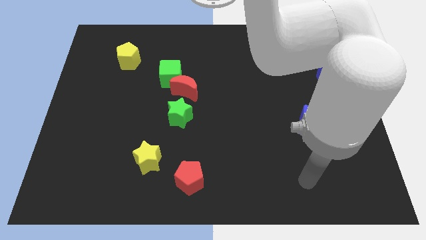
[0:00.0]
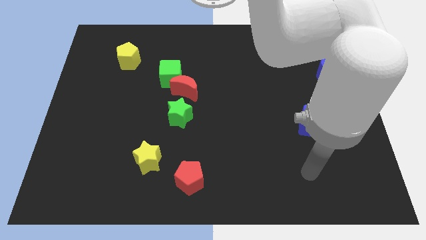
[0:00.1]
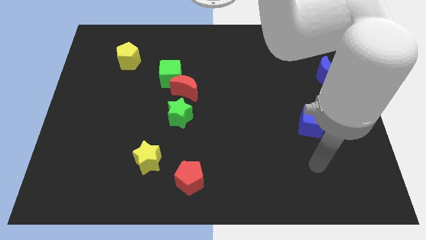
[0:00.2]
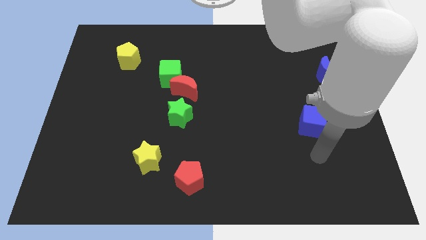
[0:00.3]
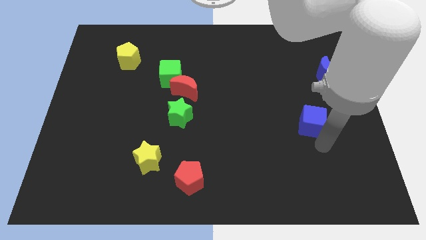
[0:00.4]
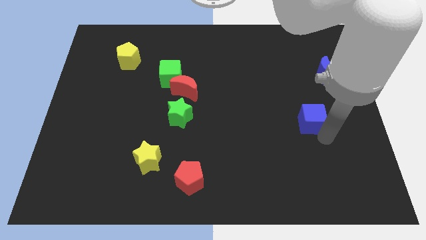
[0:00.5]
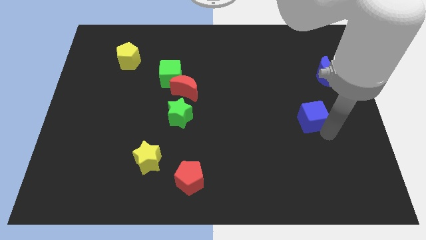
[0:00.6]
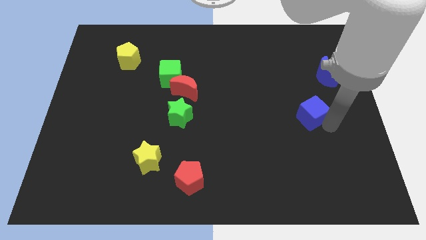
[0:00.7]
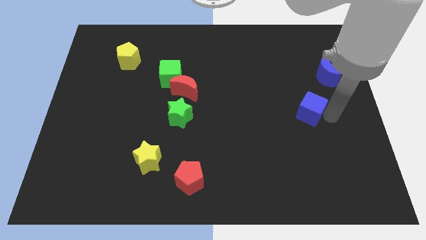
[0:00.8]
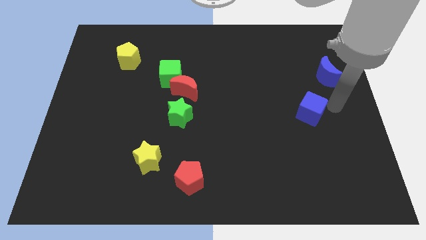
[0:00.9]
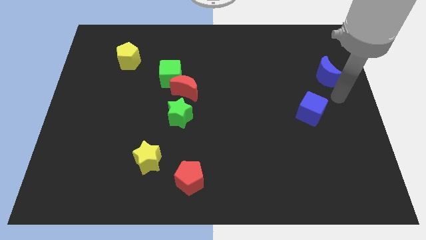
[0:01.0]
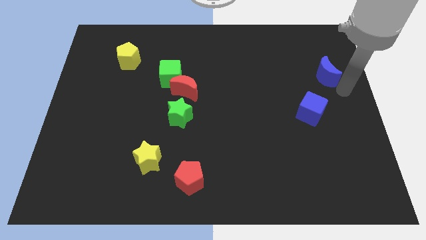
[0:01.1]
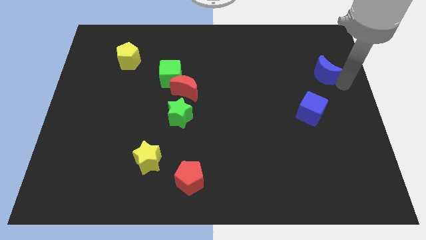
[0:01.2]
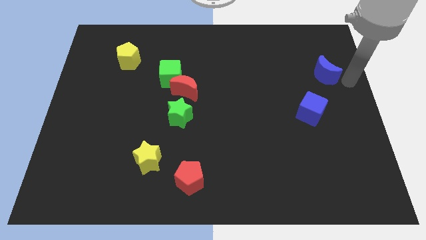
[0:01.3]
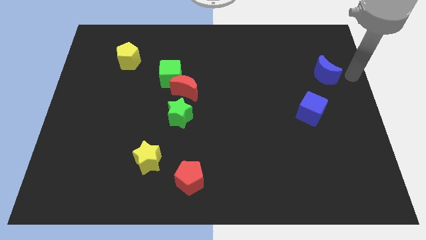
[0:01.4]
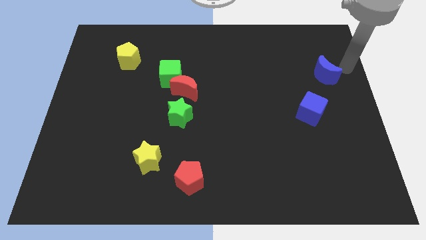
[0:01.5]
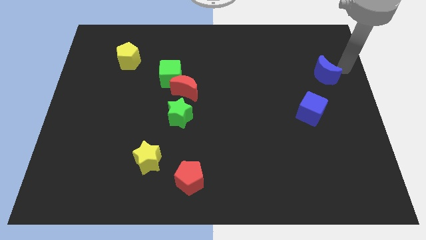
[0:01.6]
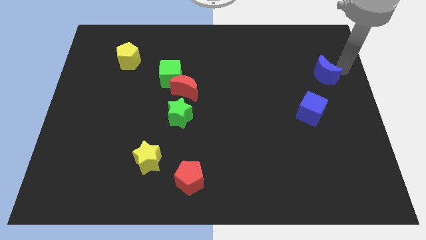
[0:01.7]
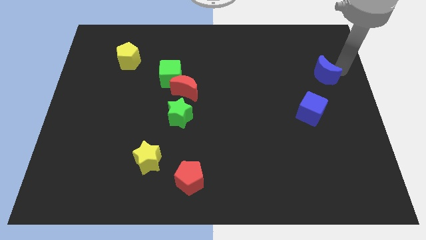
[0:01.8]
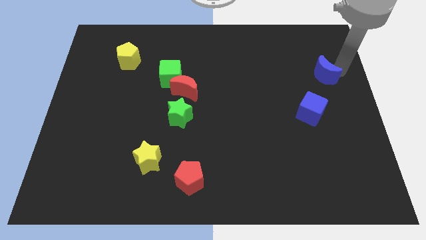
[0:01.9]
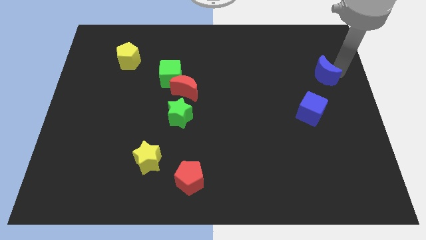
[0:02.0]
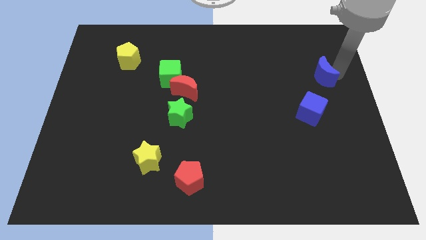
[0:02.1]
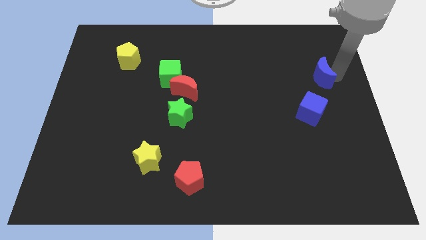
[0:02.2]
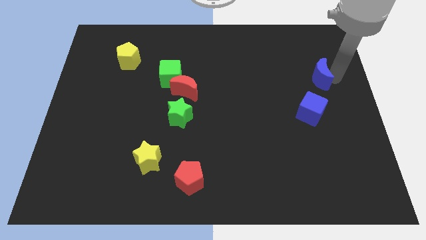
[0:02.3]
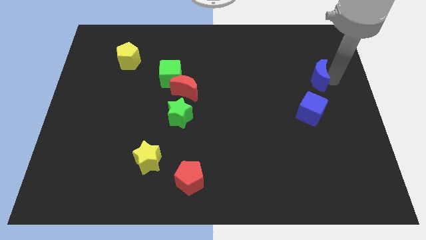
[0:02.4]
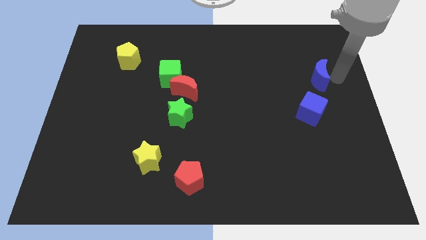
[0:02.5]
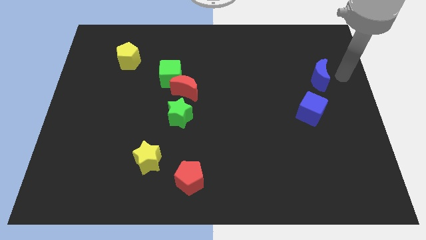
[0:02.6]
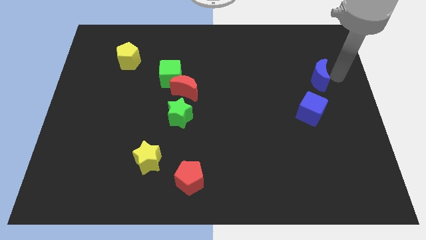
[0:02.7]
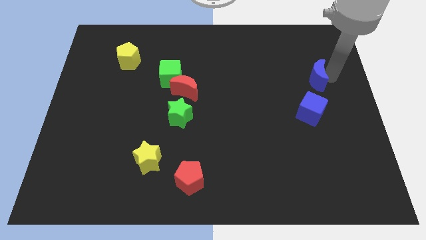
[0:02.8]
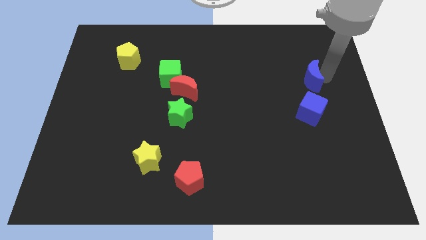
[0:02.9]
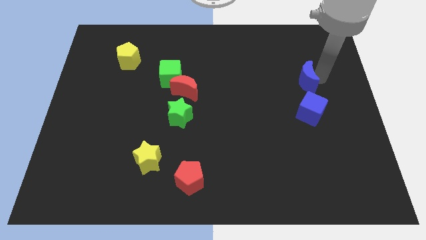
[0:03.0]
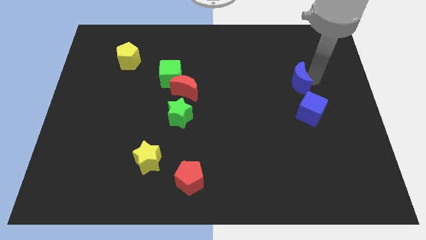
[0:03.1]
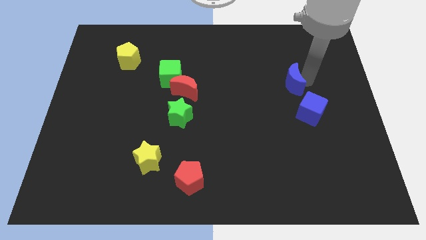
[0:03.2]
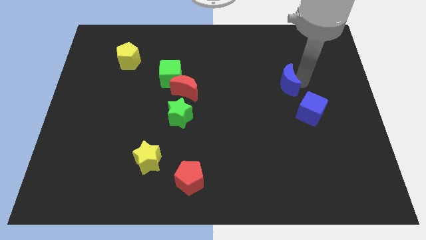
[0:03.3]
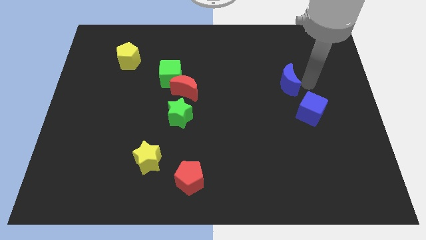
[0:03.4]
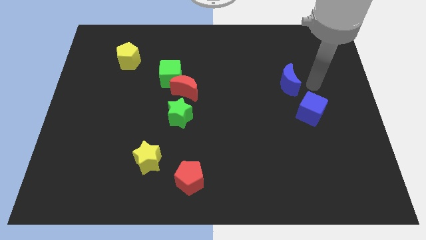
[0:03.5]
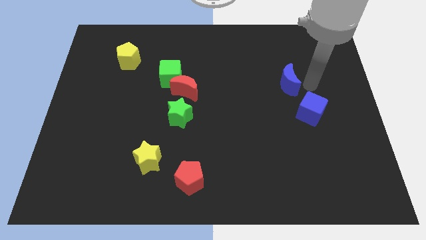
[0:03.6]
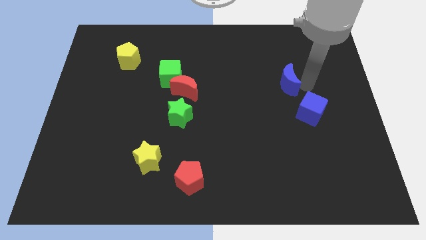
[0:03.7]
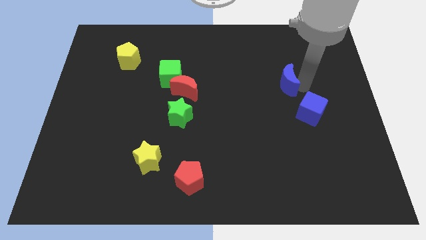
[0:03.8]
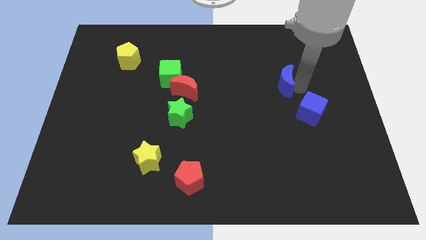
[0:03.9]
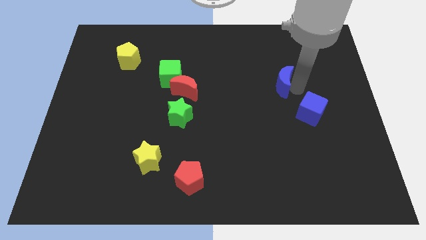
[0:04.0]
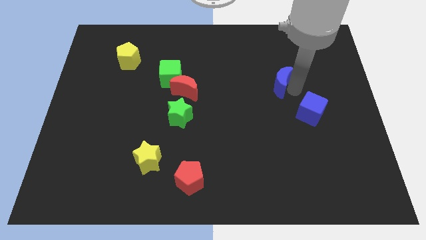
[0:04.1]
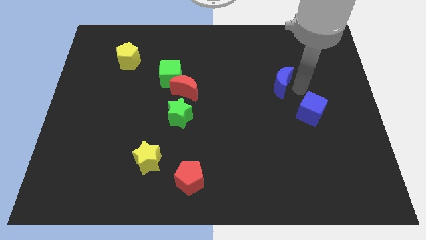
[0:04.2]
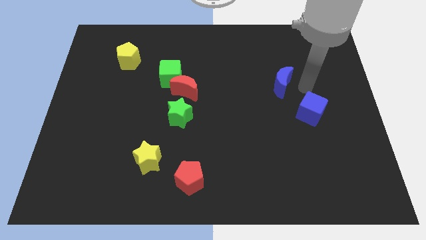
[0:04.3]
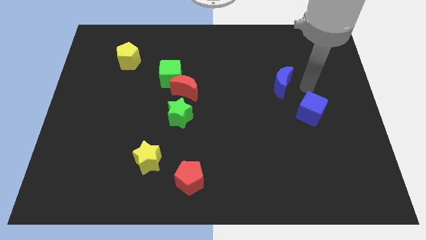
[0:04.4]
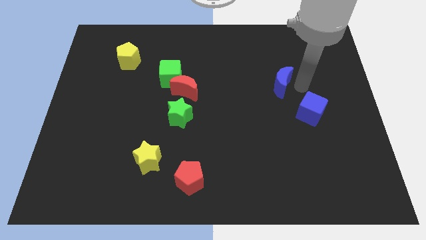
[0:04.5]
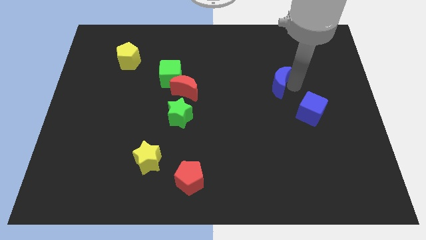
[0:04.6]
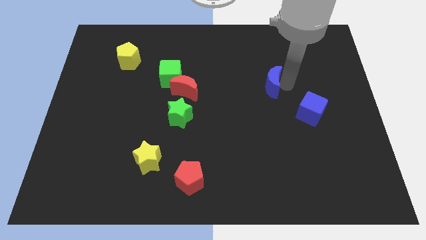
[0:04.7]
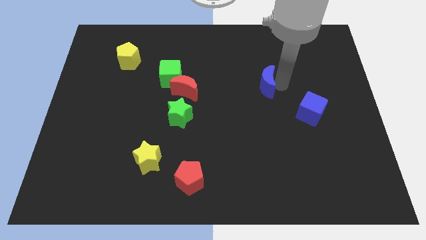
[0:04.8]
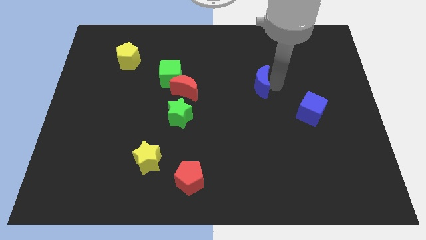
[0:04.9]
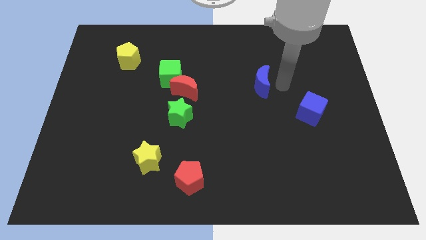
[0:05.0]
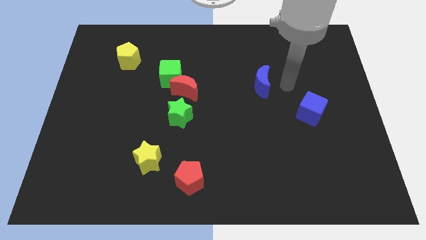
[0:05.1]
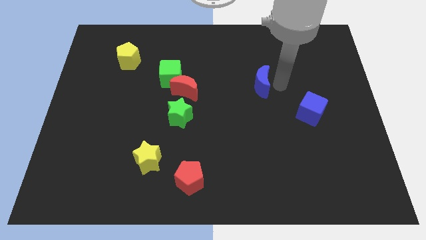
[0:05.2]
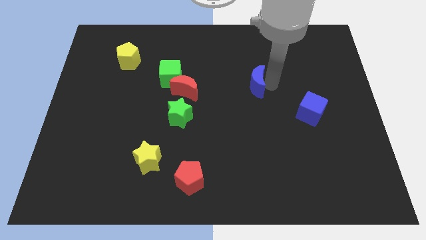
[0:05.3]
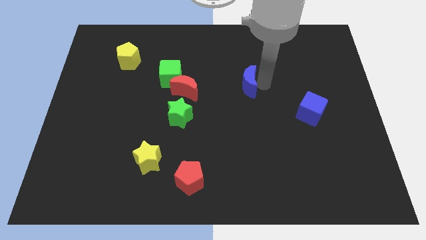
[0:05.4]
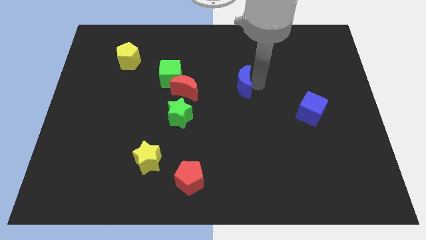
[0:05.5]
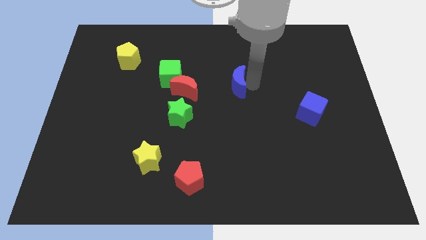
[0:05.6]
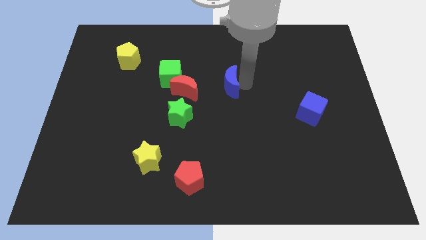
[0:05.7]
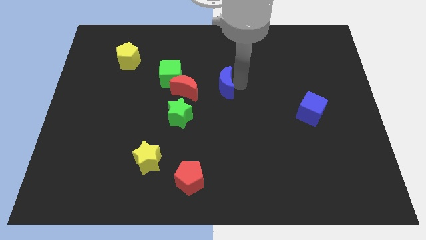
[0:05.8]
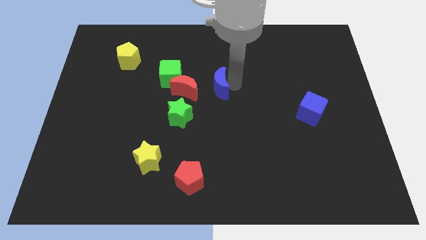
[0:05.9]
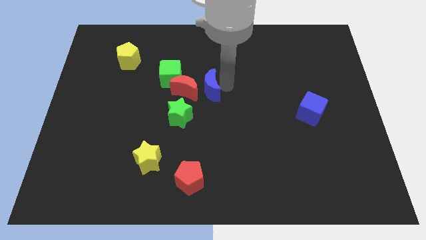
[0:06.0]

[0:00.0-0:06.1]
slide the blue moon next to the red moon

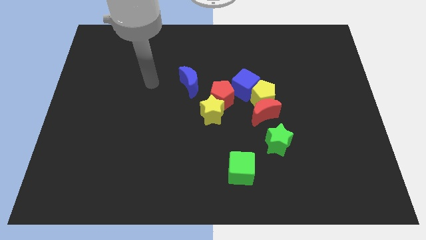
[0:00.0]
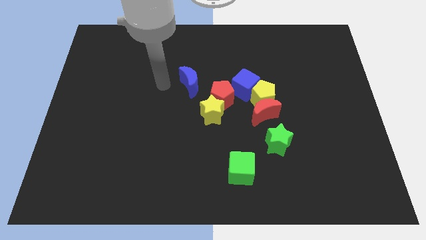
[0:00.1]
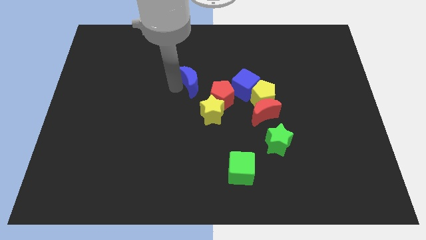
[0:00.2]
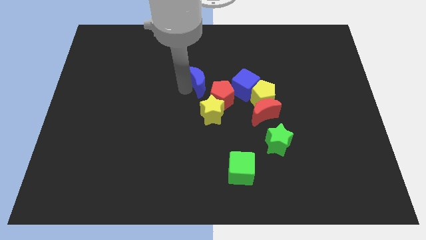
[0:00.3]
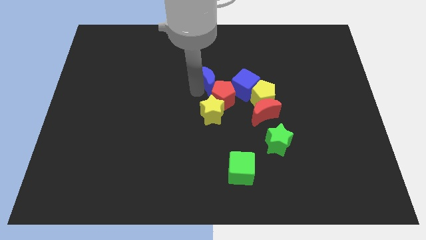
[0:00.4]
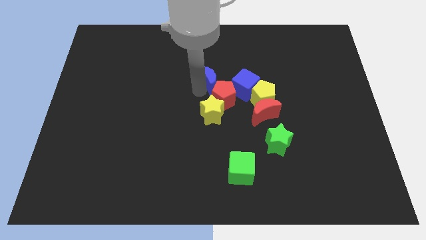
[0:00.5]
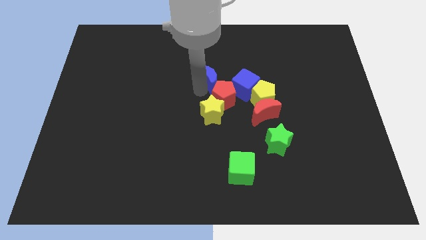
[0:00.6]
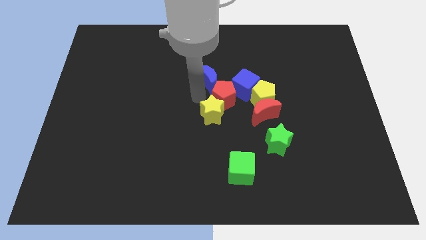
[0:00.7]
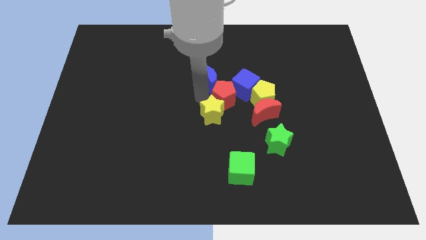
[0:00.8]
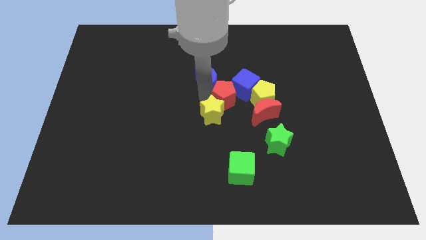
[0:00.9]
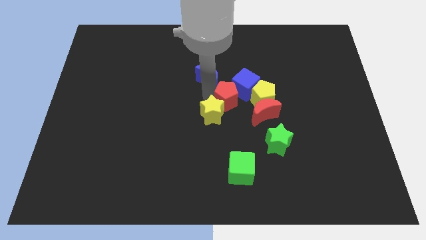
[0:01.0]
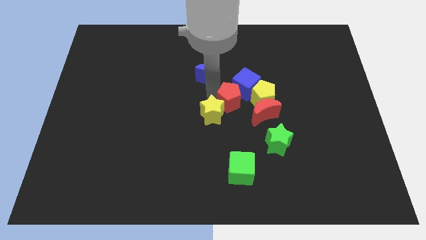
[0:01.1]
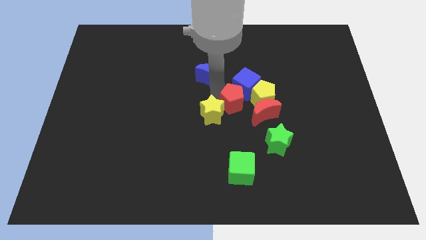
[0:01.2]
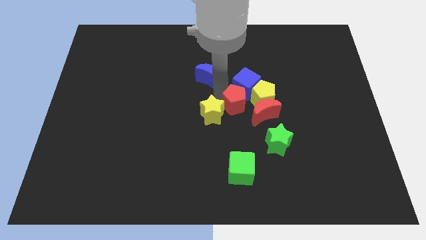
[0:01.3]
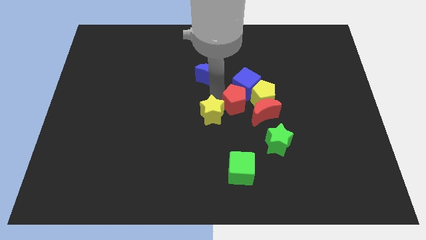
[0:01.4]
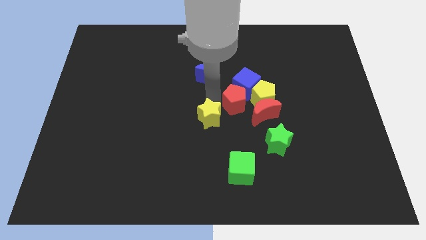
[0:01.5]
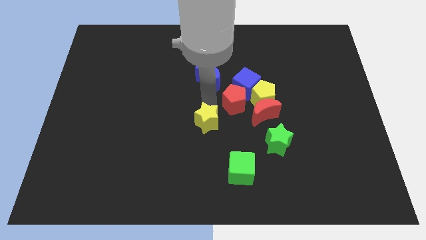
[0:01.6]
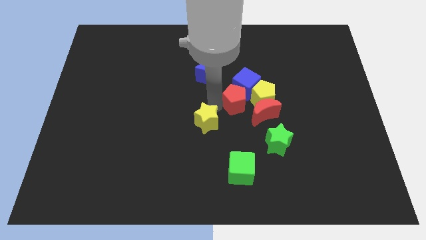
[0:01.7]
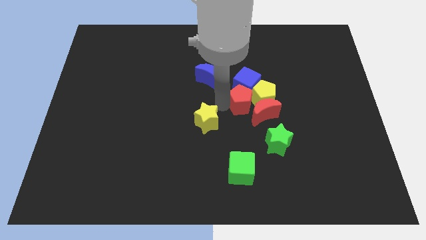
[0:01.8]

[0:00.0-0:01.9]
move the red pentagon towards the yellow pentagon
